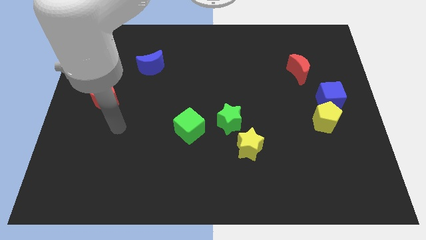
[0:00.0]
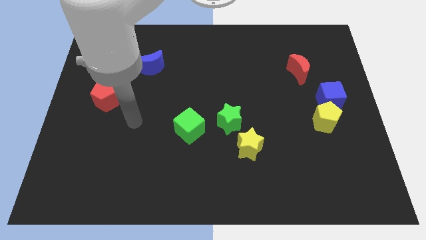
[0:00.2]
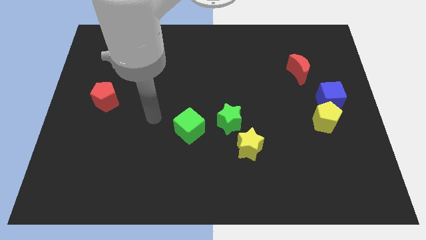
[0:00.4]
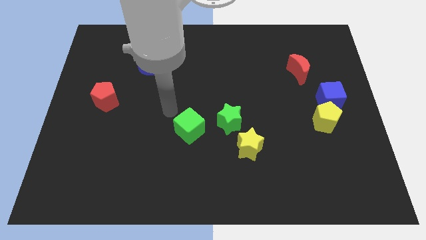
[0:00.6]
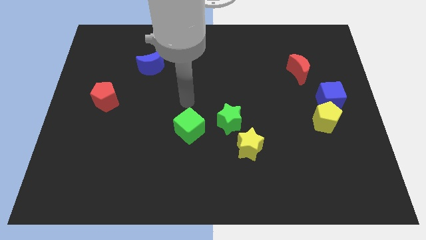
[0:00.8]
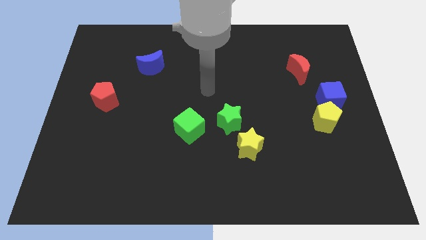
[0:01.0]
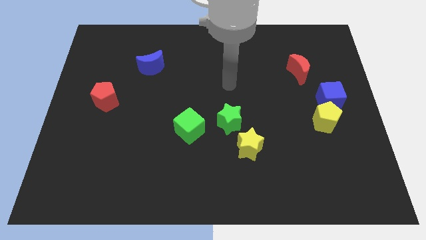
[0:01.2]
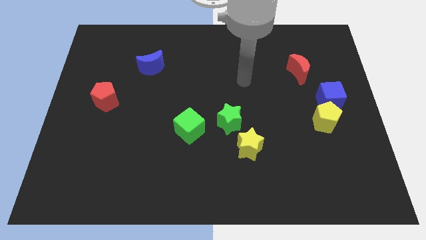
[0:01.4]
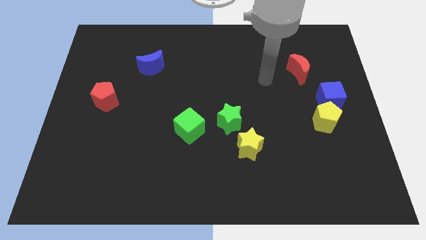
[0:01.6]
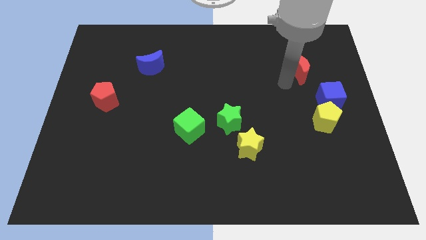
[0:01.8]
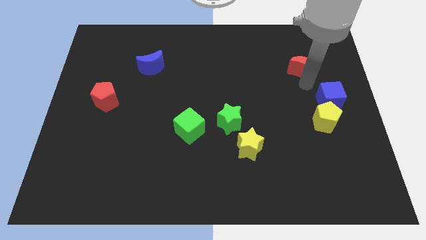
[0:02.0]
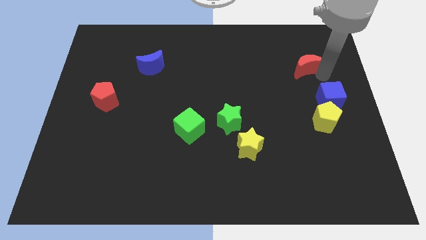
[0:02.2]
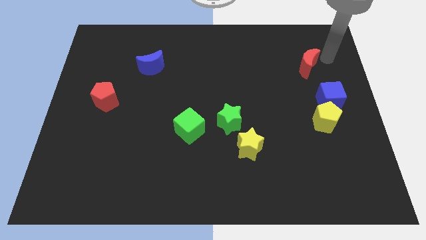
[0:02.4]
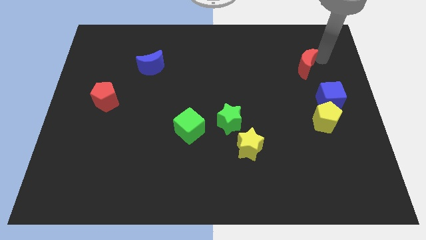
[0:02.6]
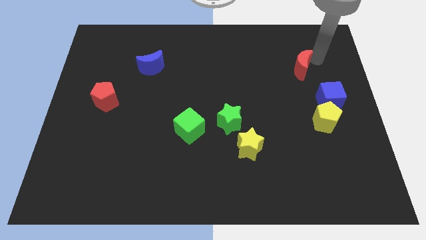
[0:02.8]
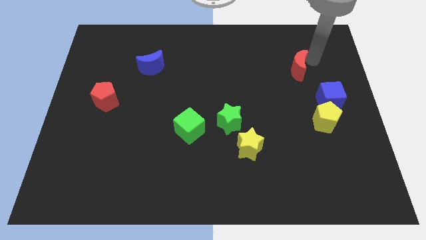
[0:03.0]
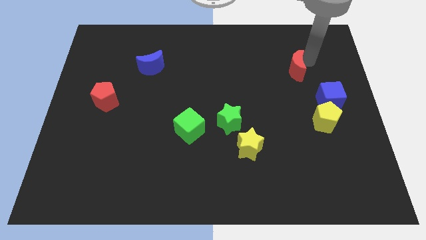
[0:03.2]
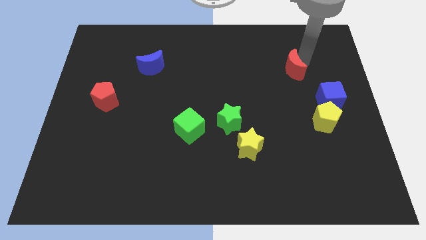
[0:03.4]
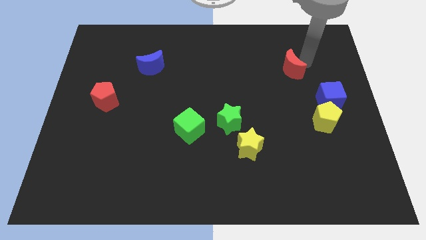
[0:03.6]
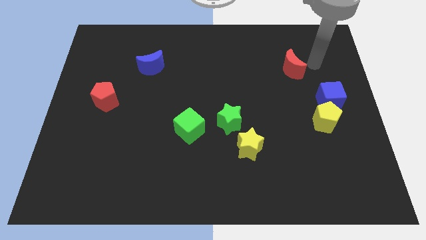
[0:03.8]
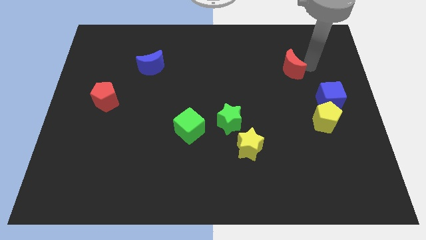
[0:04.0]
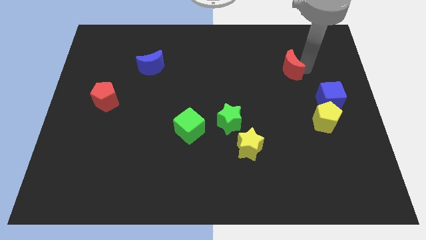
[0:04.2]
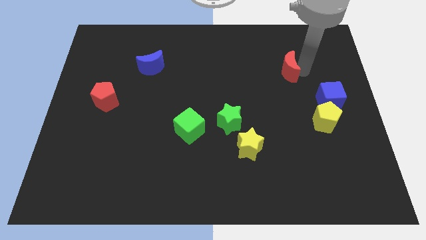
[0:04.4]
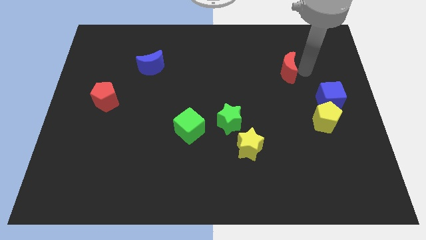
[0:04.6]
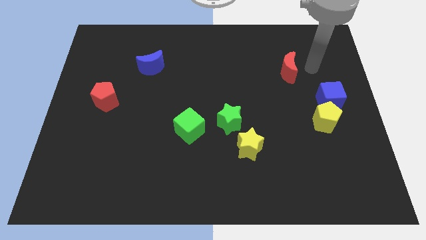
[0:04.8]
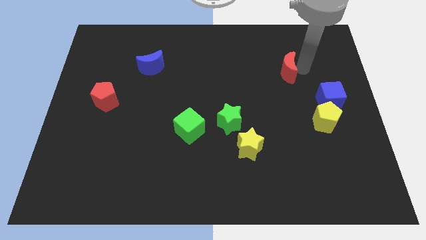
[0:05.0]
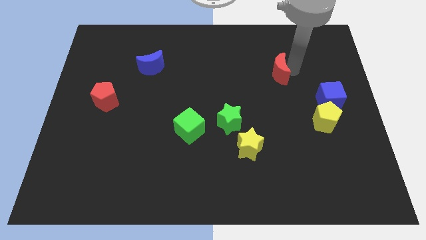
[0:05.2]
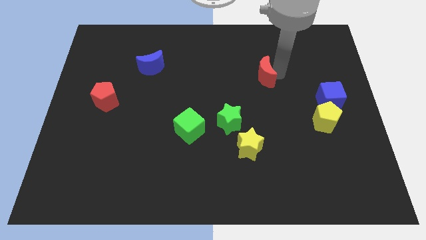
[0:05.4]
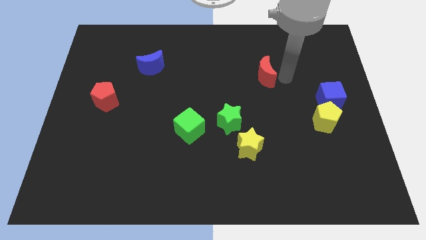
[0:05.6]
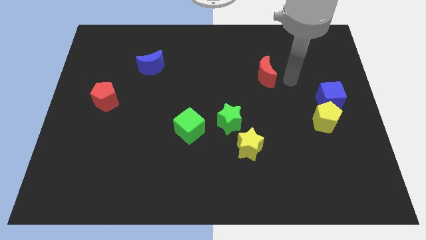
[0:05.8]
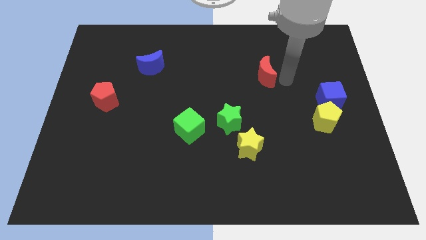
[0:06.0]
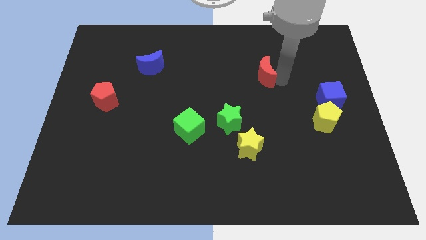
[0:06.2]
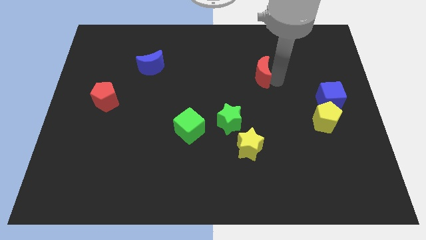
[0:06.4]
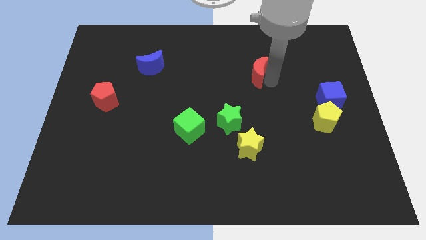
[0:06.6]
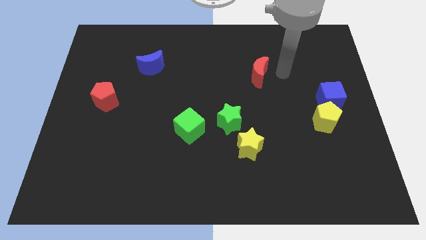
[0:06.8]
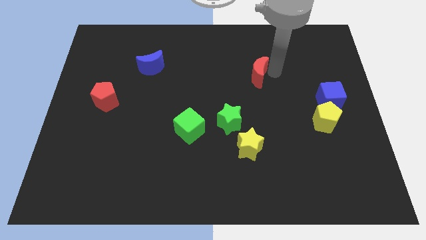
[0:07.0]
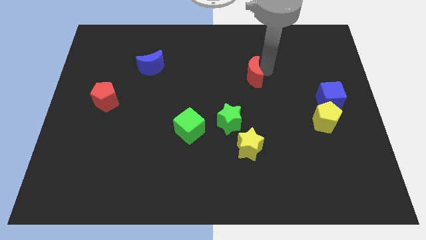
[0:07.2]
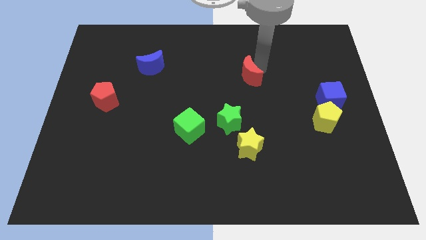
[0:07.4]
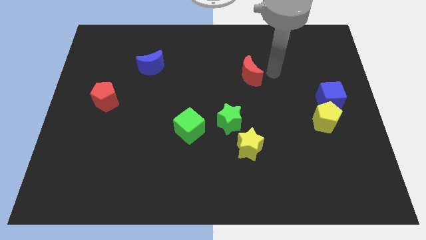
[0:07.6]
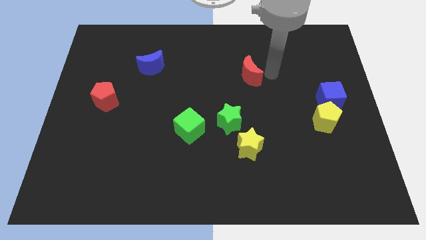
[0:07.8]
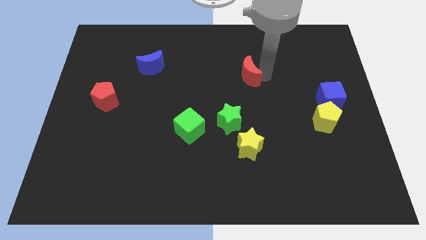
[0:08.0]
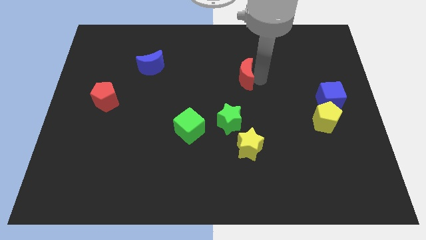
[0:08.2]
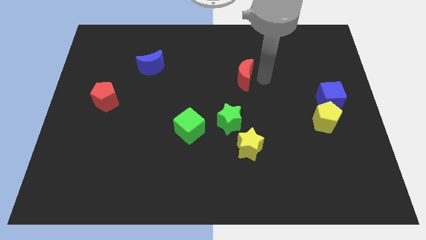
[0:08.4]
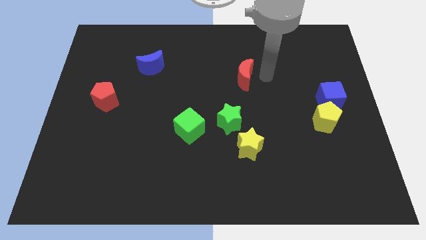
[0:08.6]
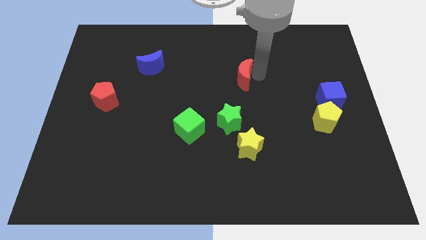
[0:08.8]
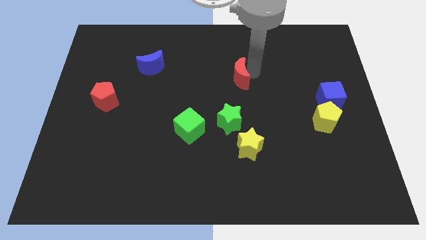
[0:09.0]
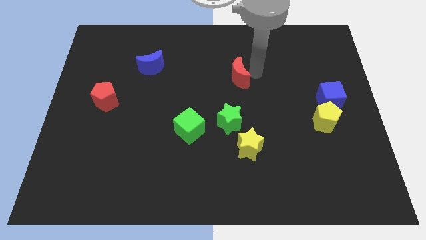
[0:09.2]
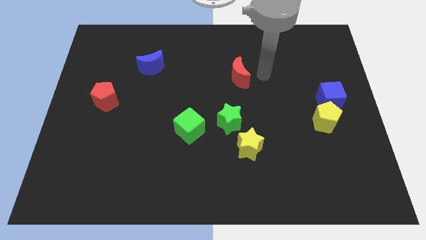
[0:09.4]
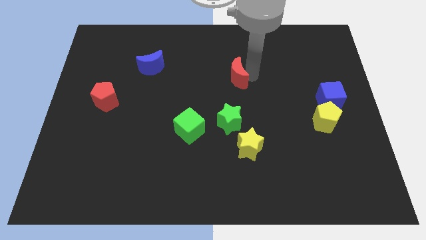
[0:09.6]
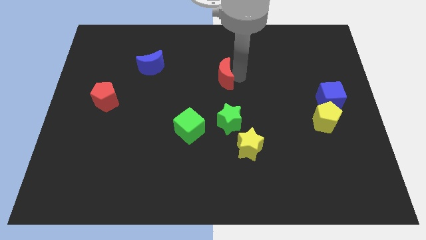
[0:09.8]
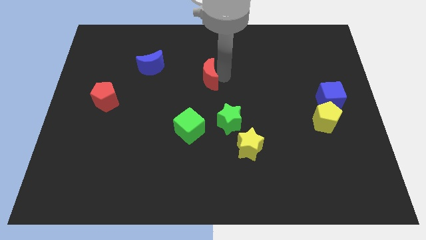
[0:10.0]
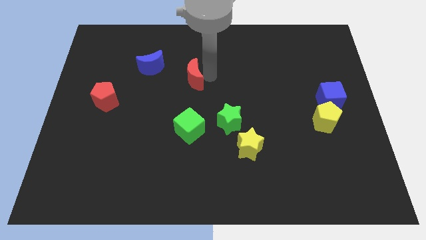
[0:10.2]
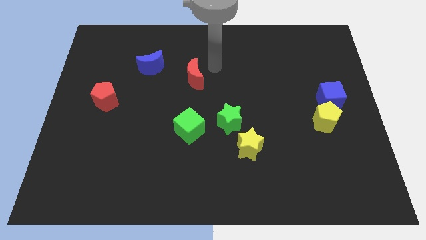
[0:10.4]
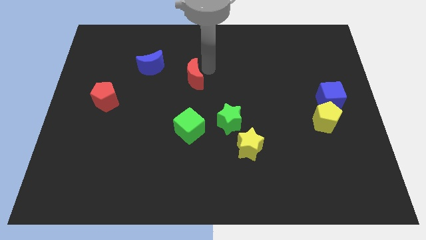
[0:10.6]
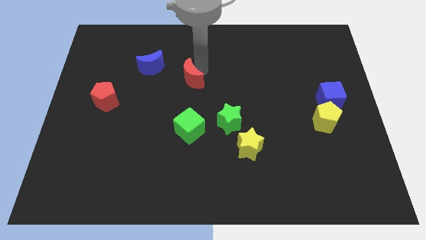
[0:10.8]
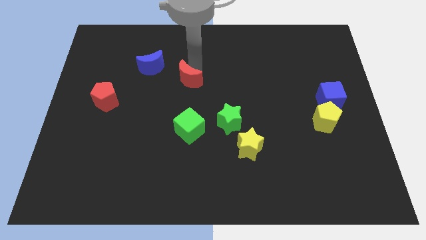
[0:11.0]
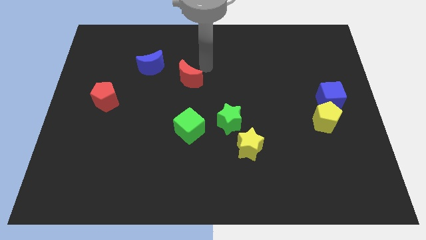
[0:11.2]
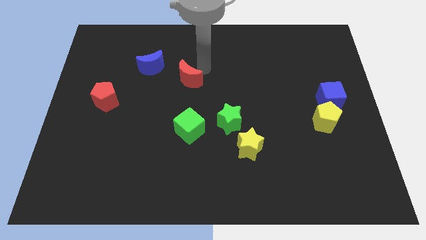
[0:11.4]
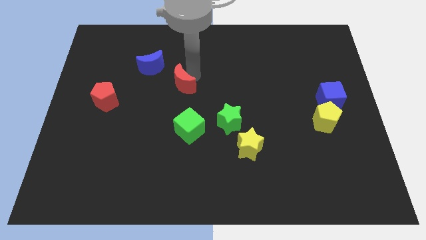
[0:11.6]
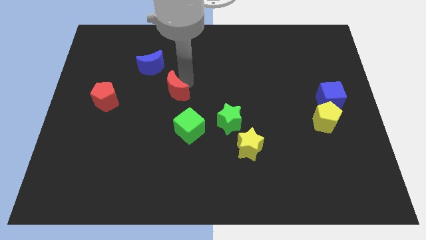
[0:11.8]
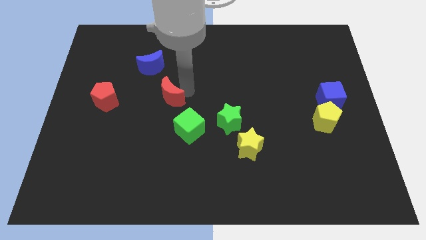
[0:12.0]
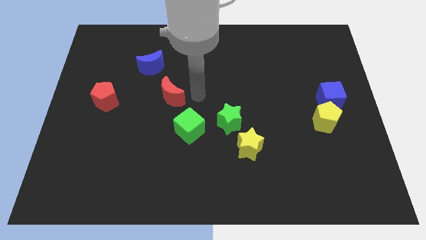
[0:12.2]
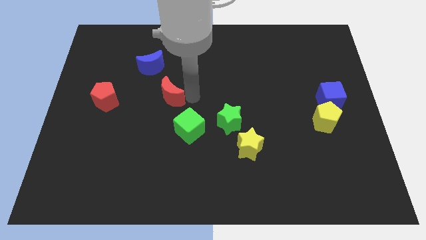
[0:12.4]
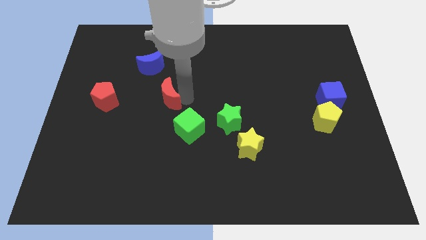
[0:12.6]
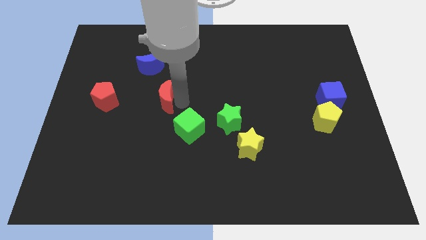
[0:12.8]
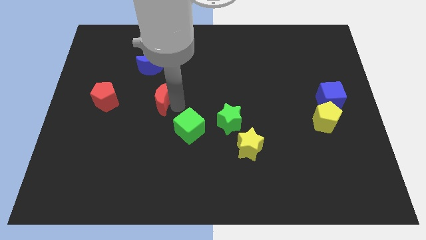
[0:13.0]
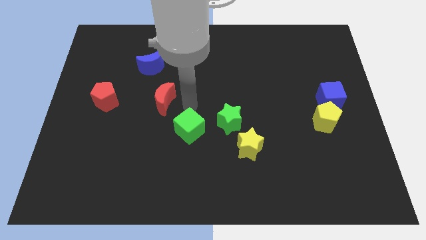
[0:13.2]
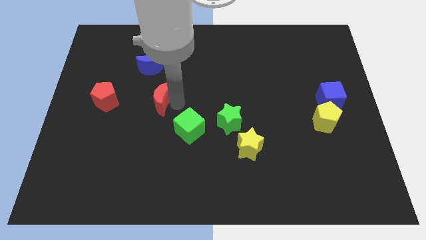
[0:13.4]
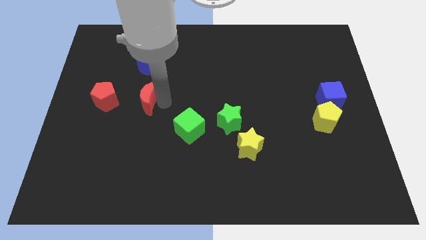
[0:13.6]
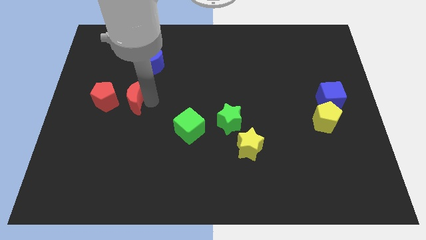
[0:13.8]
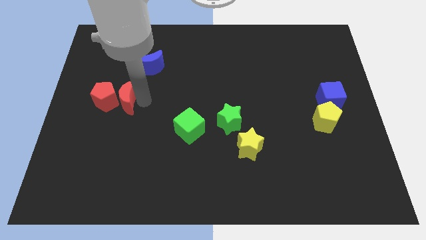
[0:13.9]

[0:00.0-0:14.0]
move the red moon close to the red pentagon
